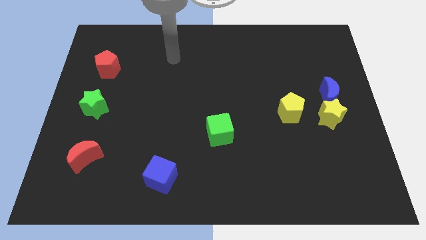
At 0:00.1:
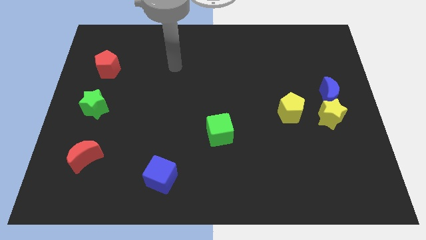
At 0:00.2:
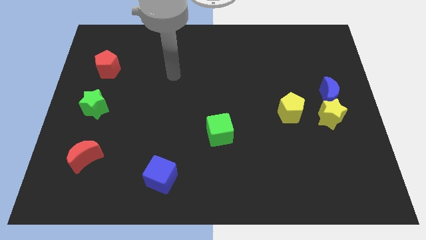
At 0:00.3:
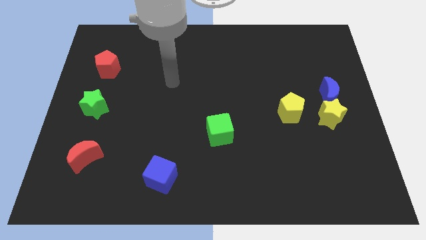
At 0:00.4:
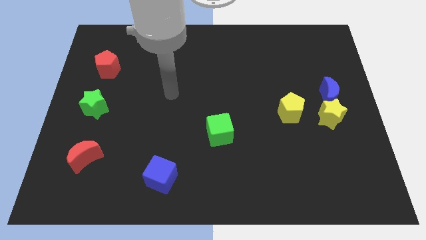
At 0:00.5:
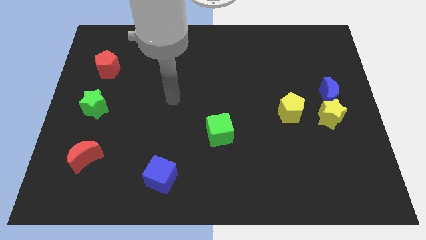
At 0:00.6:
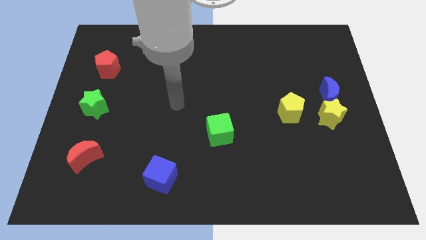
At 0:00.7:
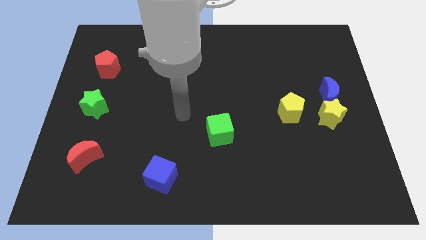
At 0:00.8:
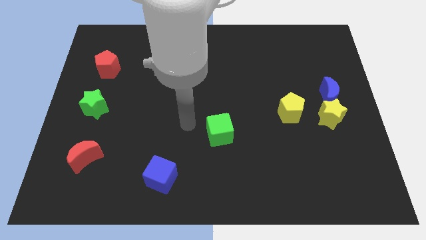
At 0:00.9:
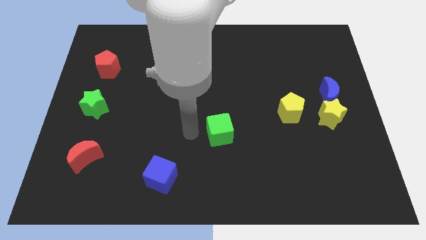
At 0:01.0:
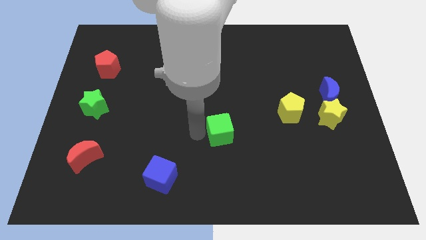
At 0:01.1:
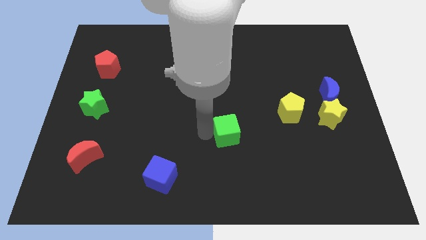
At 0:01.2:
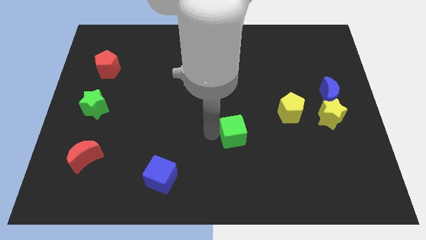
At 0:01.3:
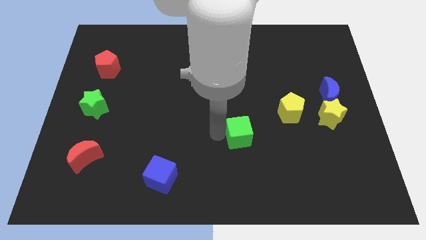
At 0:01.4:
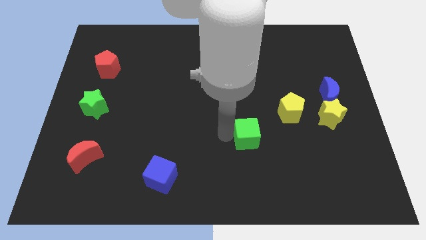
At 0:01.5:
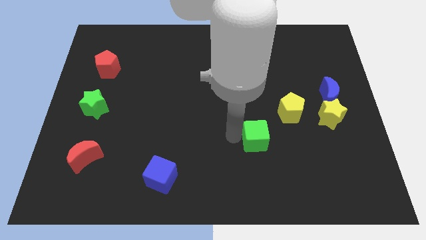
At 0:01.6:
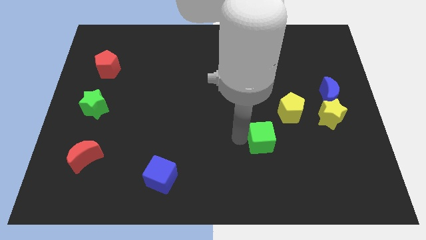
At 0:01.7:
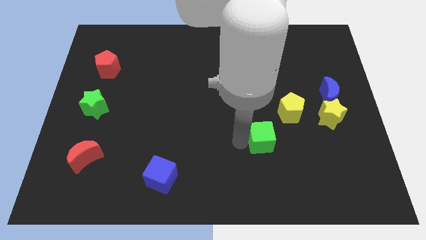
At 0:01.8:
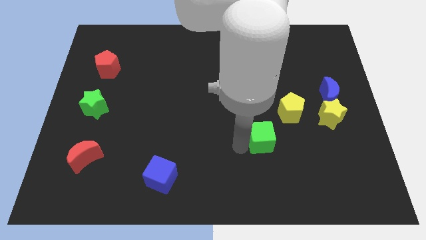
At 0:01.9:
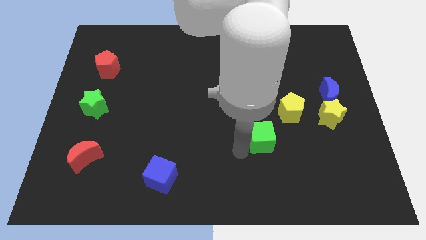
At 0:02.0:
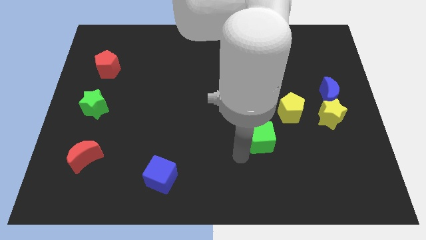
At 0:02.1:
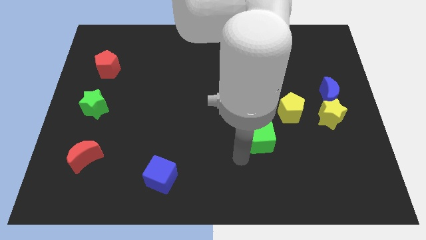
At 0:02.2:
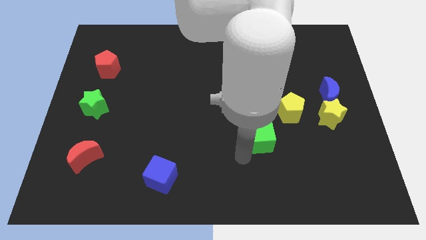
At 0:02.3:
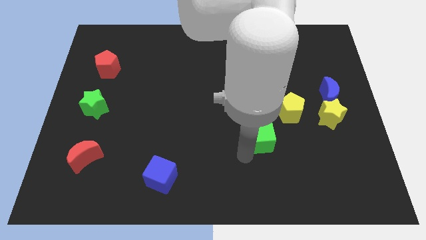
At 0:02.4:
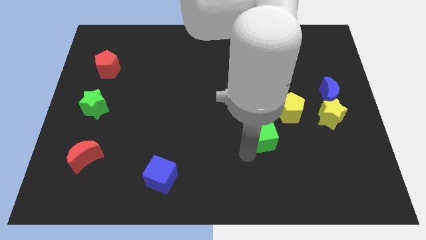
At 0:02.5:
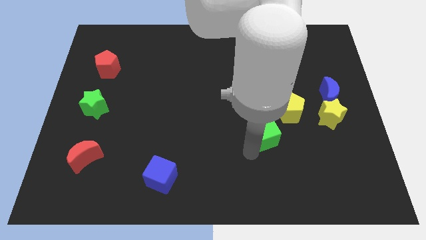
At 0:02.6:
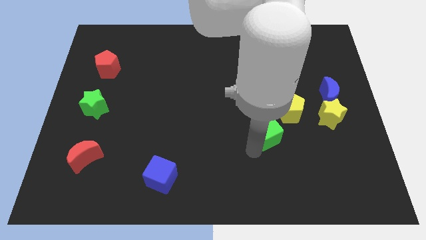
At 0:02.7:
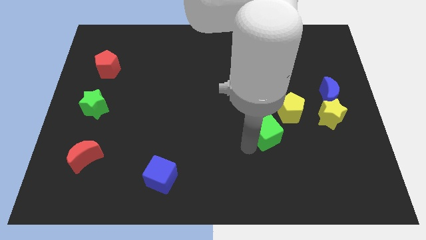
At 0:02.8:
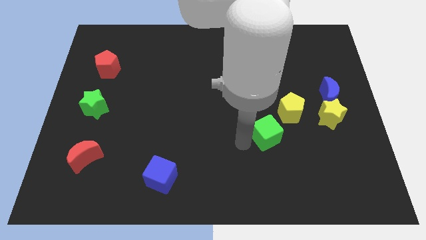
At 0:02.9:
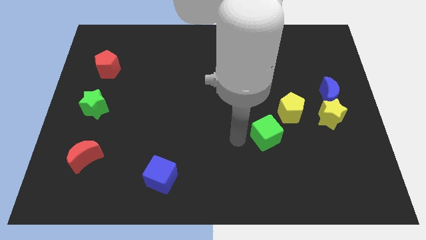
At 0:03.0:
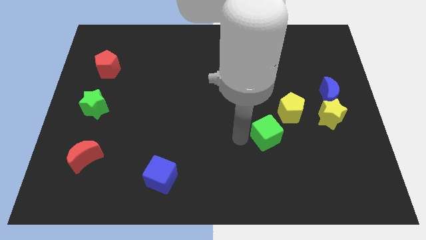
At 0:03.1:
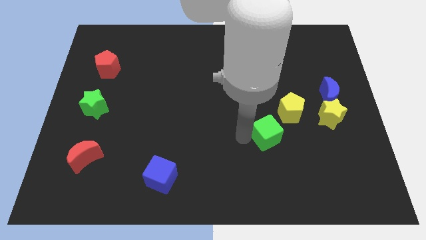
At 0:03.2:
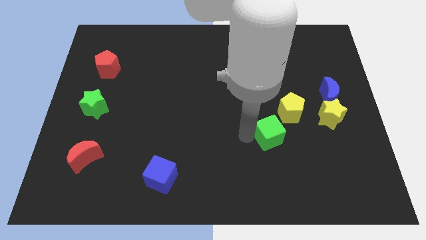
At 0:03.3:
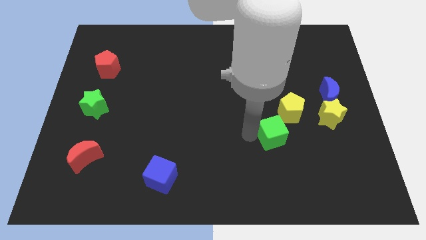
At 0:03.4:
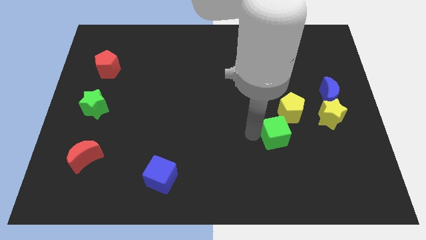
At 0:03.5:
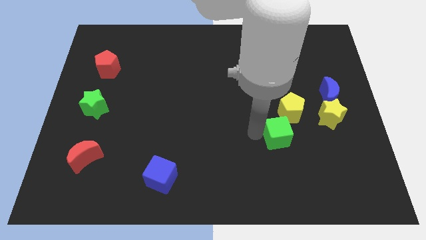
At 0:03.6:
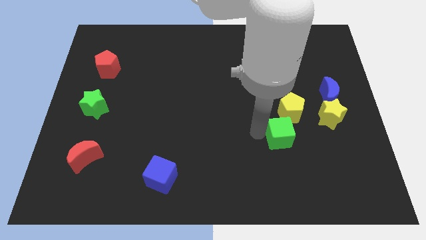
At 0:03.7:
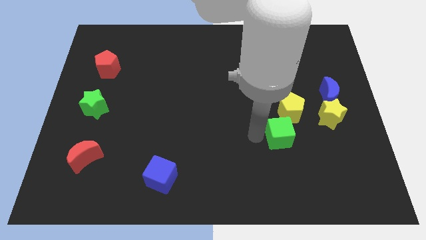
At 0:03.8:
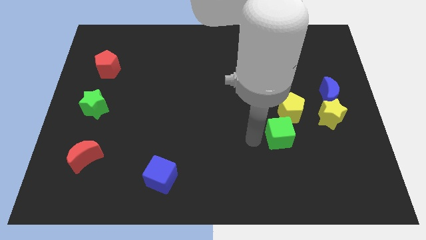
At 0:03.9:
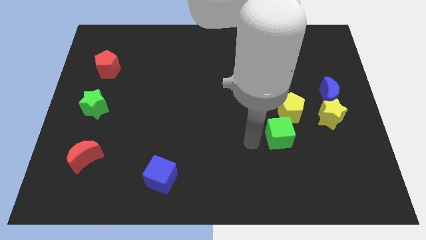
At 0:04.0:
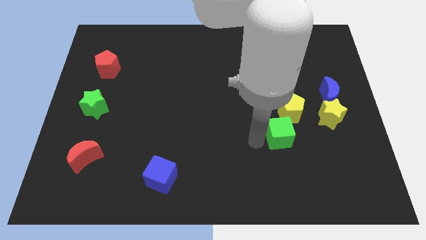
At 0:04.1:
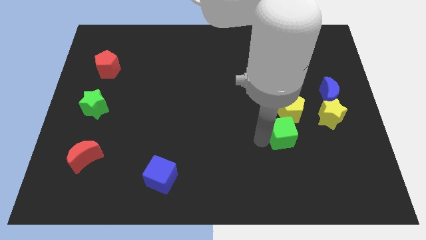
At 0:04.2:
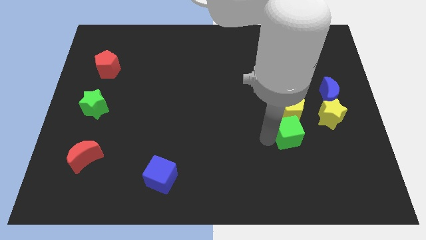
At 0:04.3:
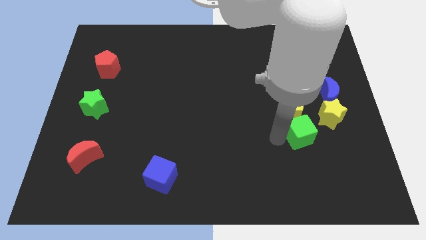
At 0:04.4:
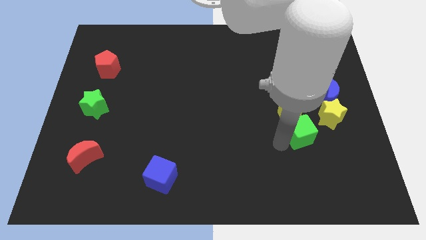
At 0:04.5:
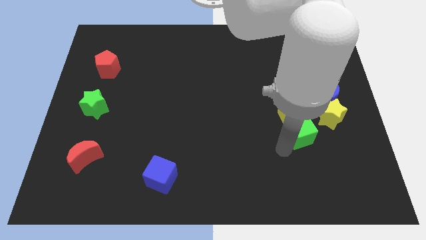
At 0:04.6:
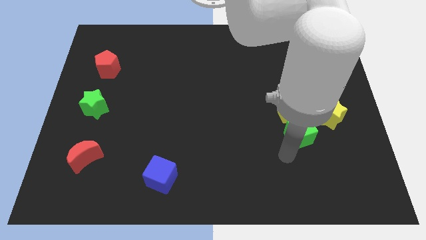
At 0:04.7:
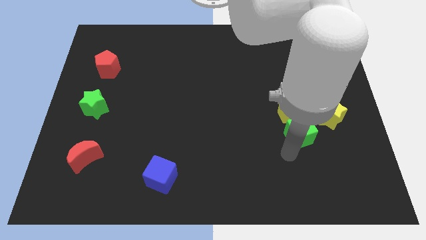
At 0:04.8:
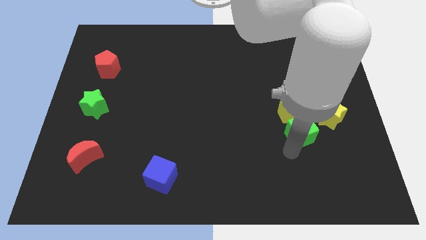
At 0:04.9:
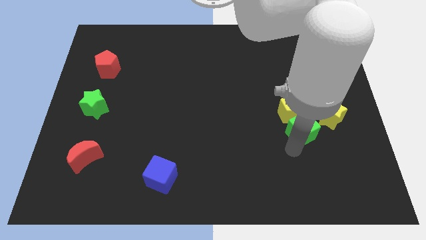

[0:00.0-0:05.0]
slide the green cube to the bottom left side of the blue moon

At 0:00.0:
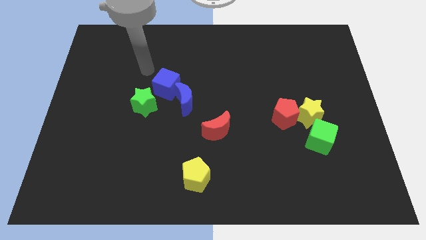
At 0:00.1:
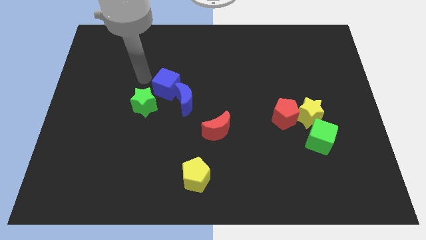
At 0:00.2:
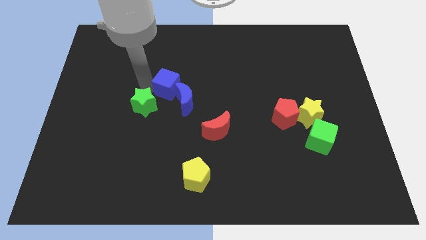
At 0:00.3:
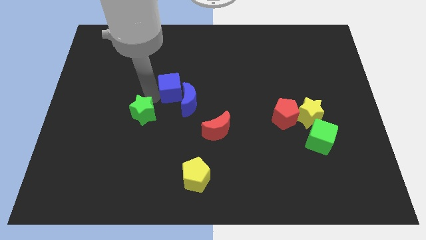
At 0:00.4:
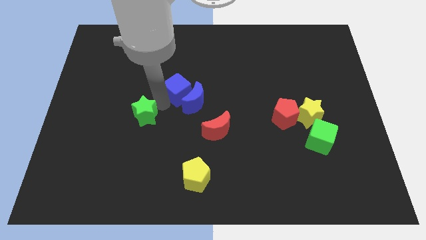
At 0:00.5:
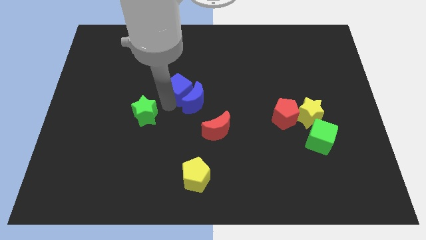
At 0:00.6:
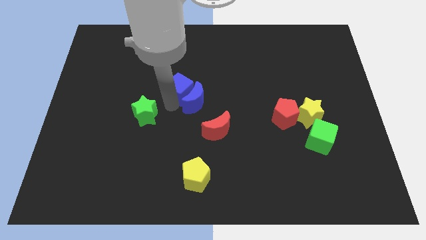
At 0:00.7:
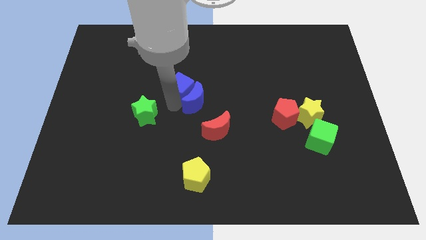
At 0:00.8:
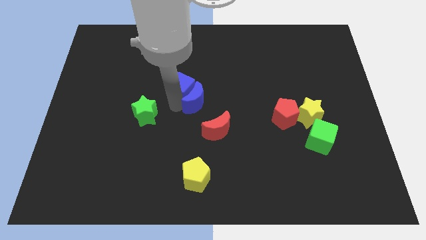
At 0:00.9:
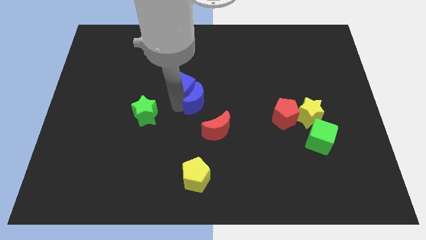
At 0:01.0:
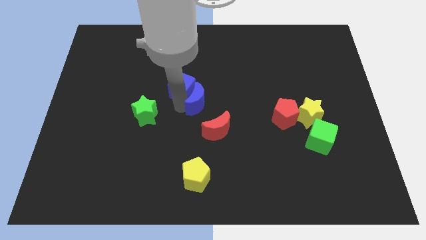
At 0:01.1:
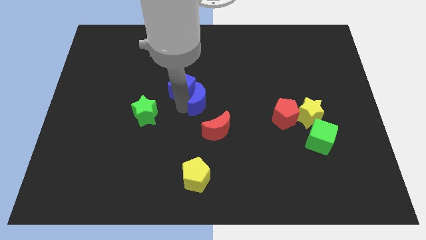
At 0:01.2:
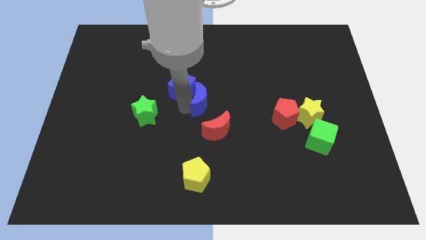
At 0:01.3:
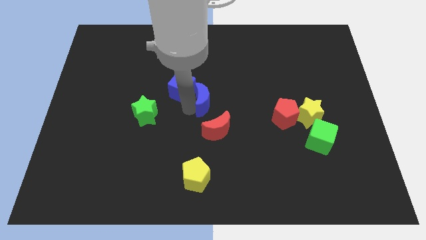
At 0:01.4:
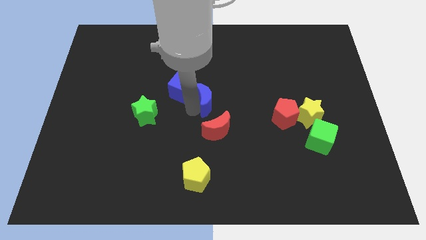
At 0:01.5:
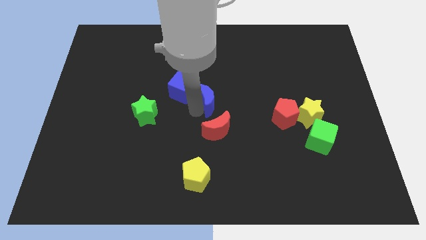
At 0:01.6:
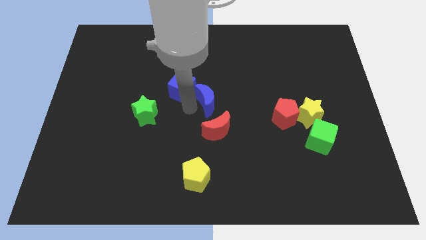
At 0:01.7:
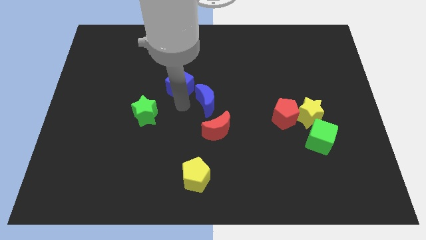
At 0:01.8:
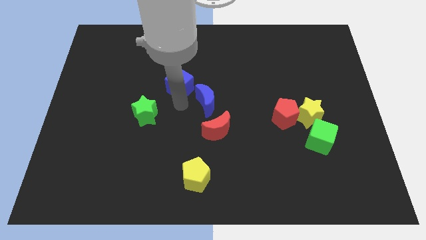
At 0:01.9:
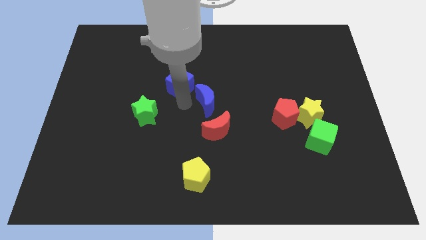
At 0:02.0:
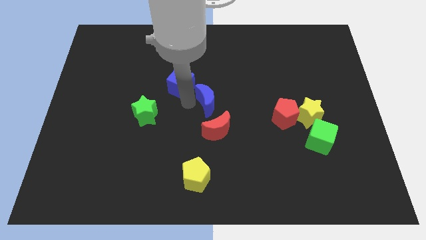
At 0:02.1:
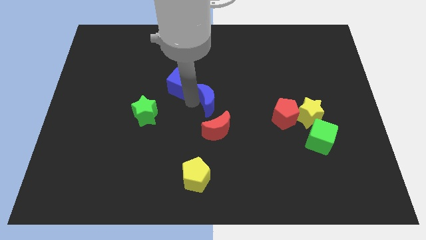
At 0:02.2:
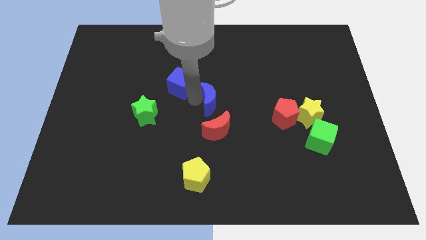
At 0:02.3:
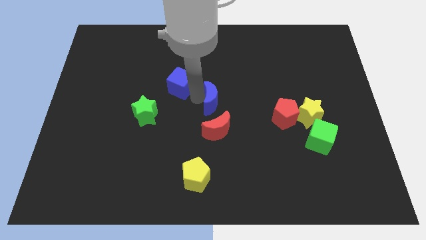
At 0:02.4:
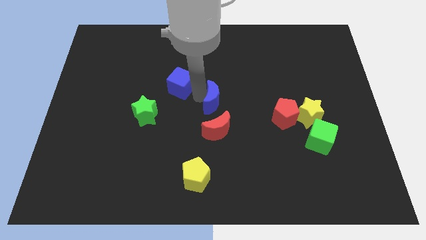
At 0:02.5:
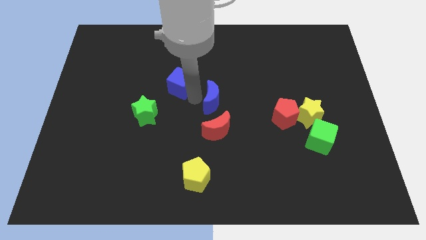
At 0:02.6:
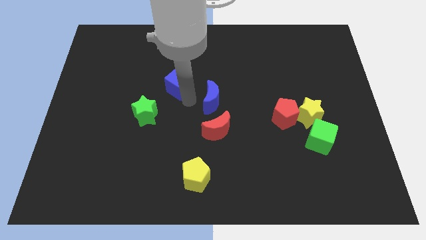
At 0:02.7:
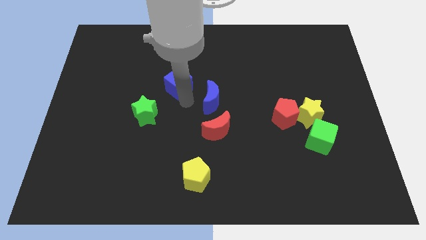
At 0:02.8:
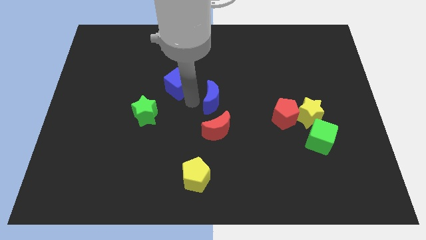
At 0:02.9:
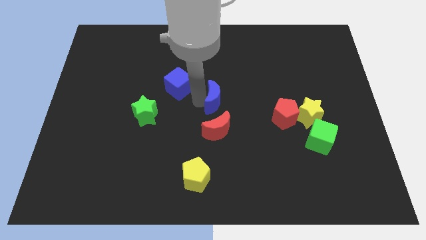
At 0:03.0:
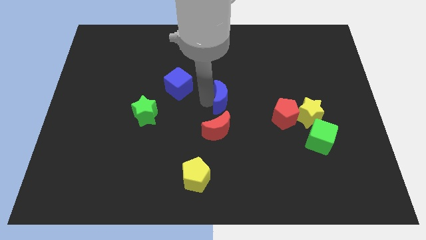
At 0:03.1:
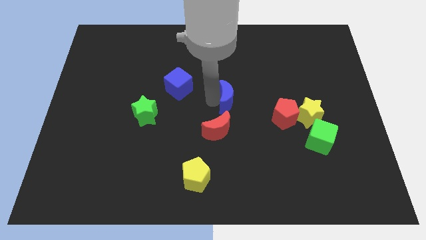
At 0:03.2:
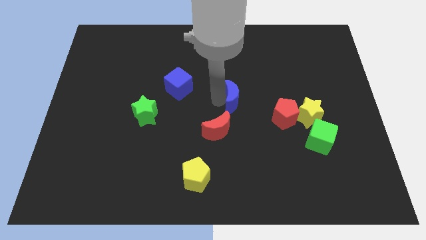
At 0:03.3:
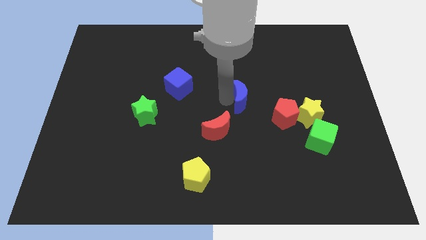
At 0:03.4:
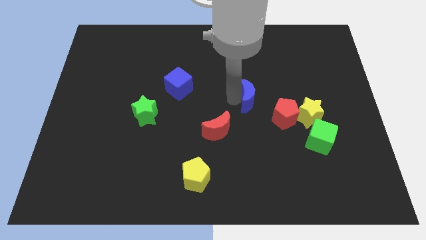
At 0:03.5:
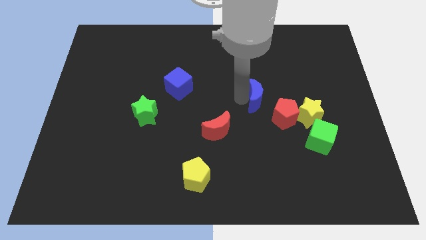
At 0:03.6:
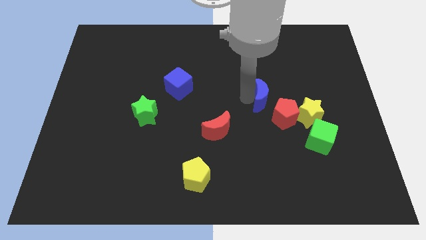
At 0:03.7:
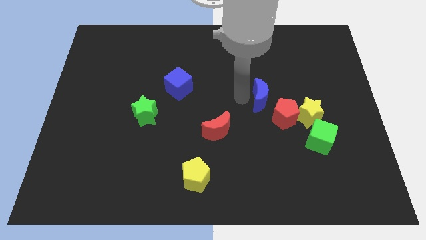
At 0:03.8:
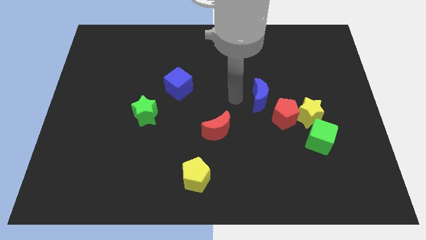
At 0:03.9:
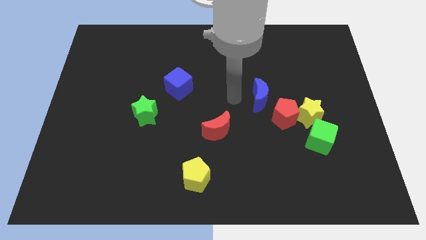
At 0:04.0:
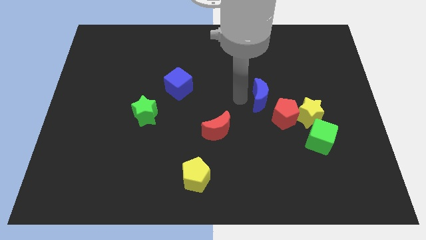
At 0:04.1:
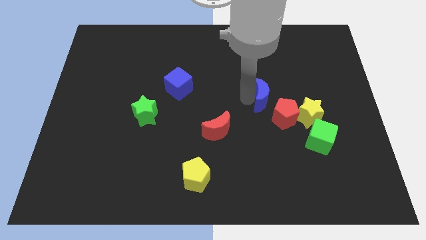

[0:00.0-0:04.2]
push the blue moon to the top left side of the yellow star
